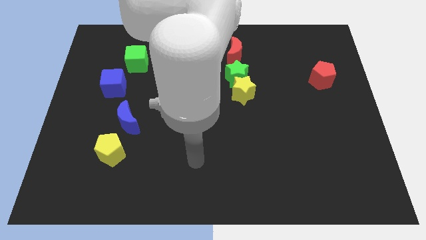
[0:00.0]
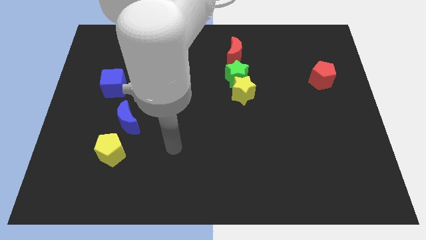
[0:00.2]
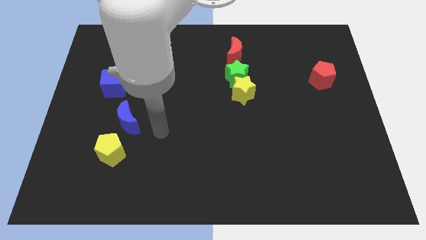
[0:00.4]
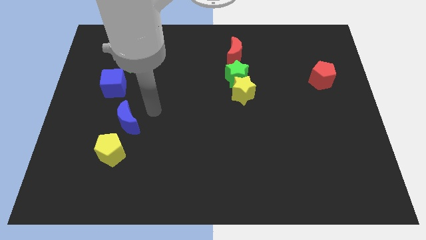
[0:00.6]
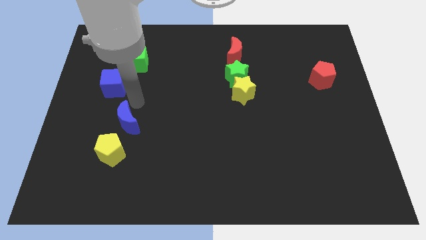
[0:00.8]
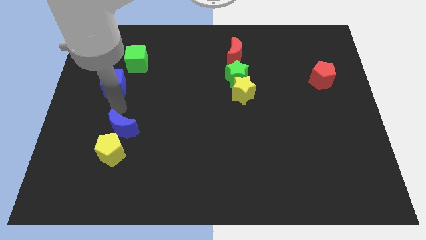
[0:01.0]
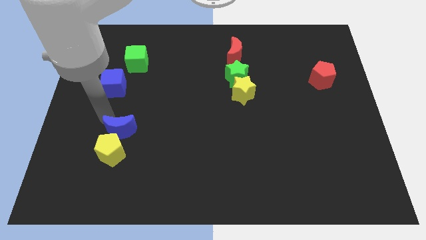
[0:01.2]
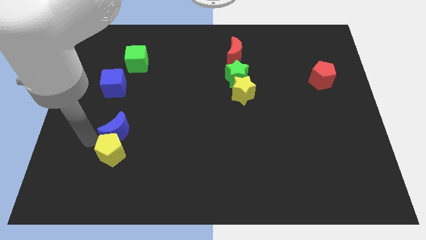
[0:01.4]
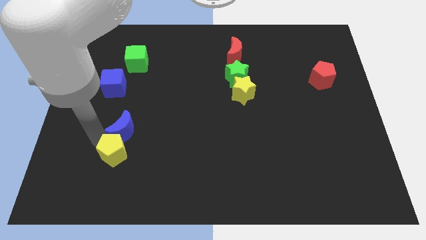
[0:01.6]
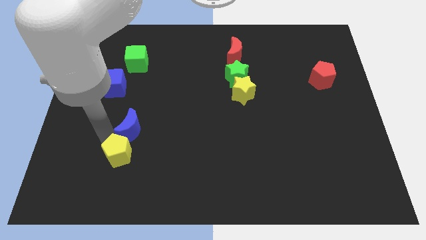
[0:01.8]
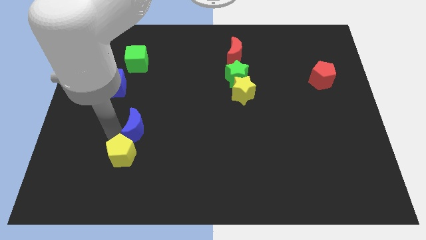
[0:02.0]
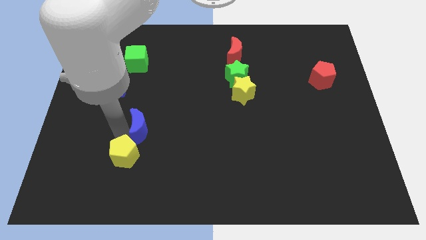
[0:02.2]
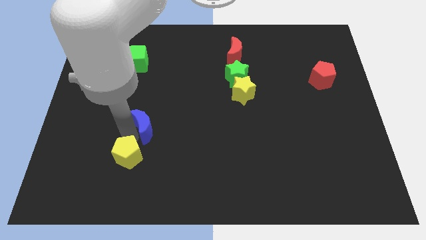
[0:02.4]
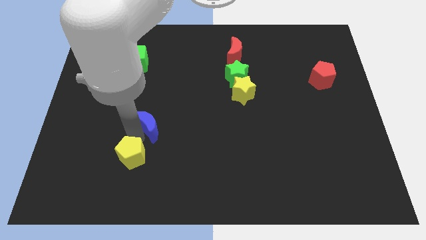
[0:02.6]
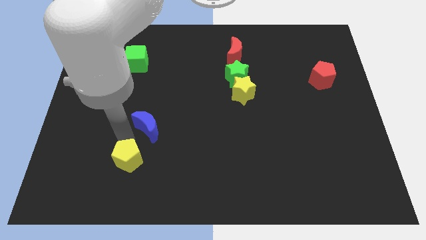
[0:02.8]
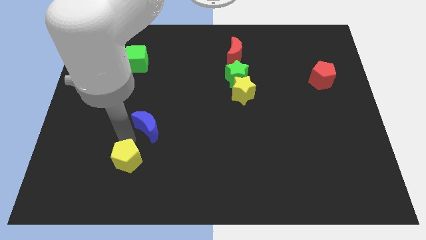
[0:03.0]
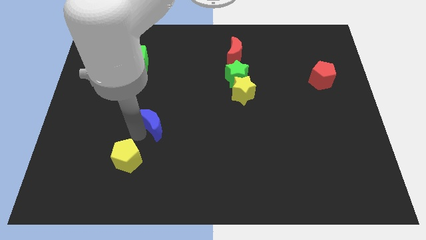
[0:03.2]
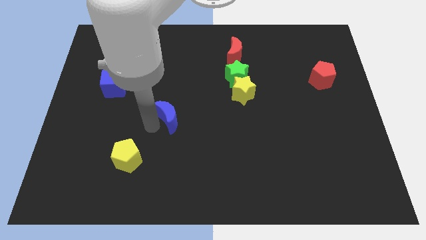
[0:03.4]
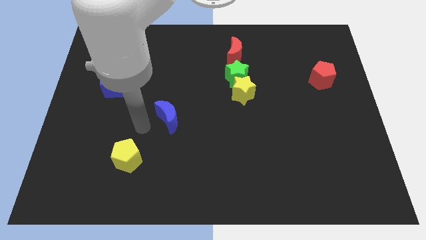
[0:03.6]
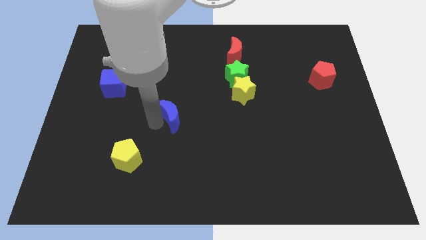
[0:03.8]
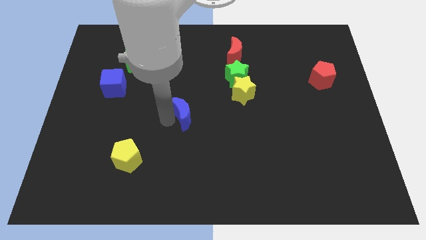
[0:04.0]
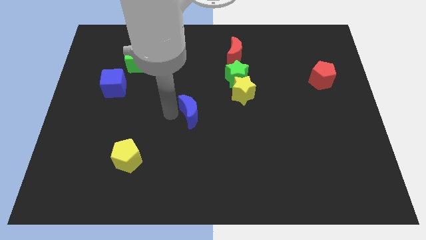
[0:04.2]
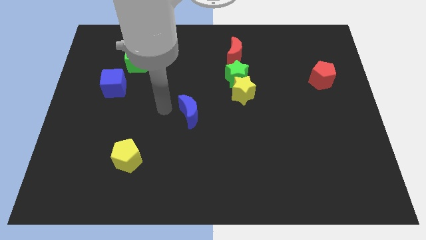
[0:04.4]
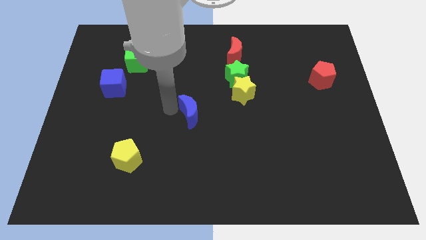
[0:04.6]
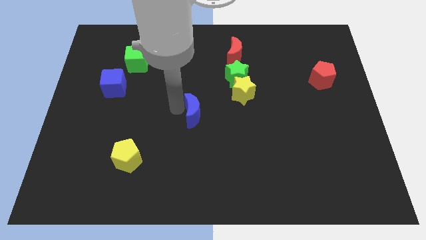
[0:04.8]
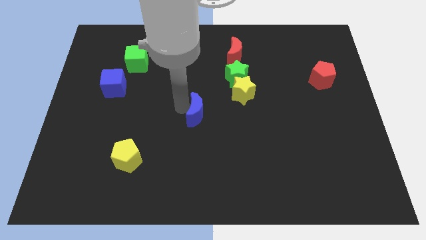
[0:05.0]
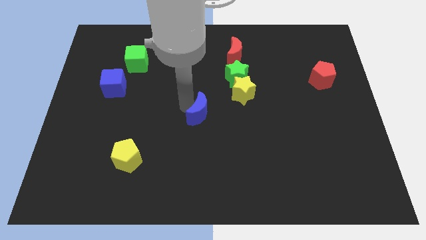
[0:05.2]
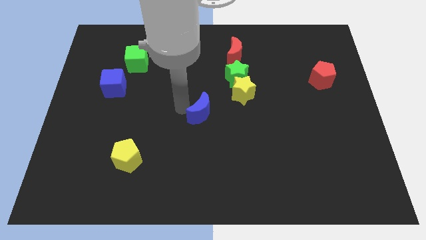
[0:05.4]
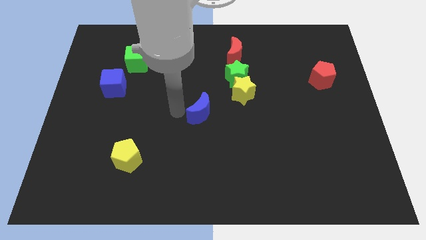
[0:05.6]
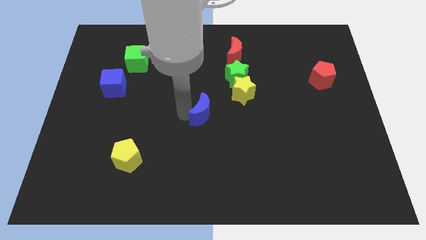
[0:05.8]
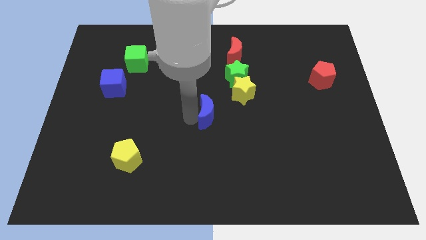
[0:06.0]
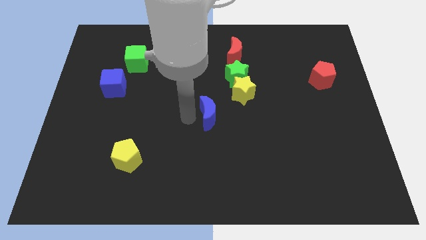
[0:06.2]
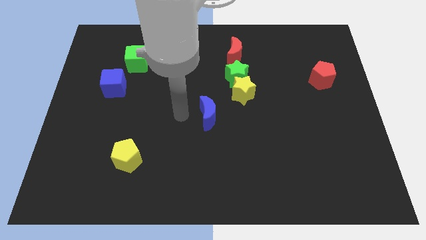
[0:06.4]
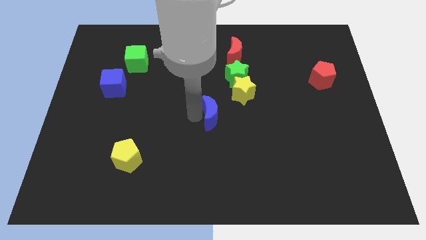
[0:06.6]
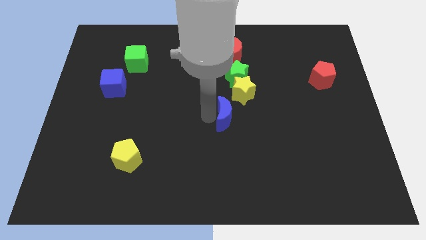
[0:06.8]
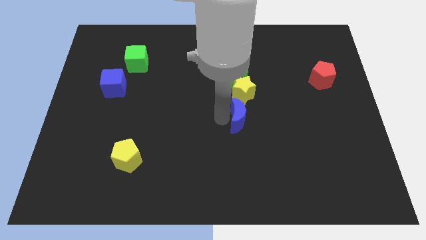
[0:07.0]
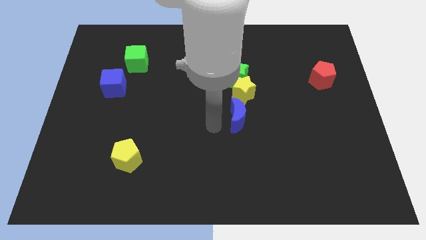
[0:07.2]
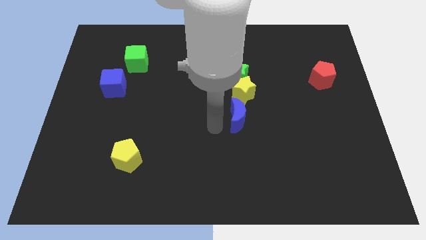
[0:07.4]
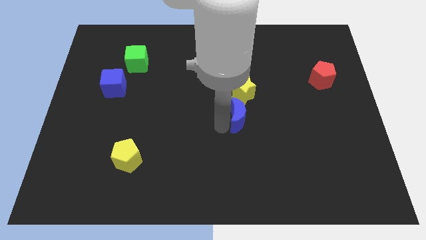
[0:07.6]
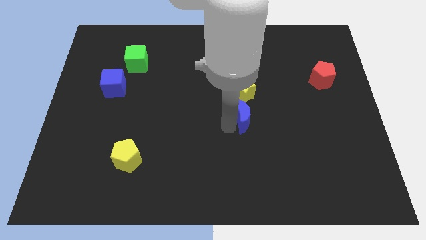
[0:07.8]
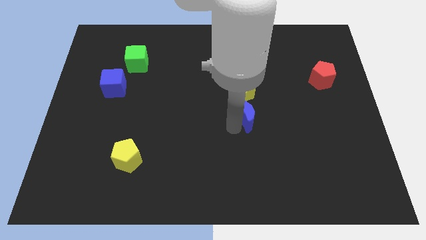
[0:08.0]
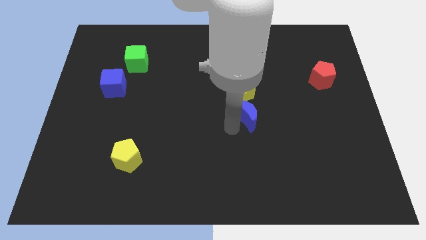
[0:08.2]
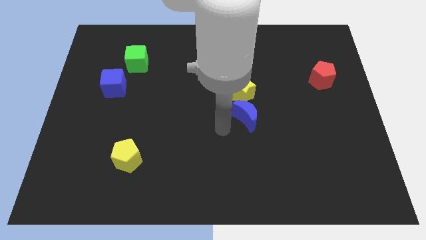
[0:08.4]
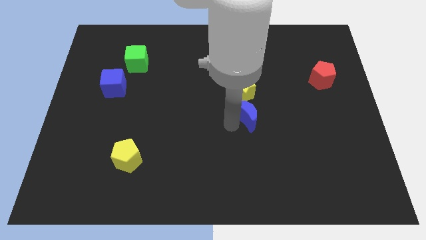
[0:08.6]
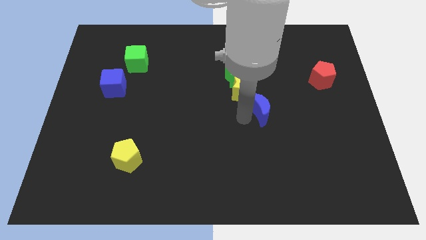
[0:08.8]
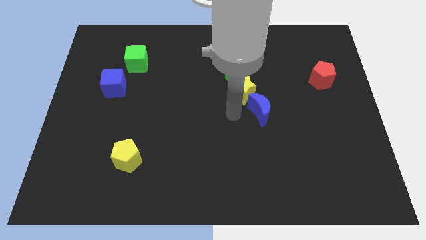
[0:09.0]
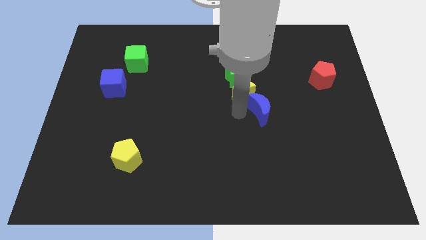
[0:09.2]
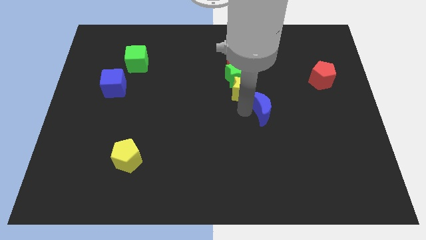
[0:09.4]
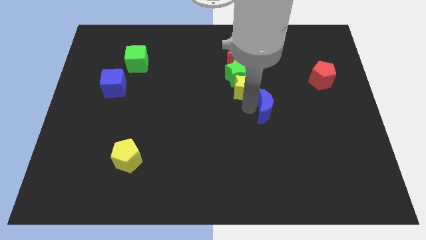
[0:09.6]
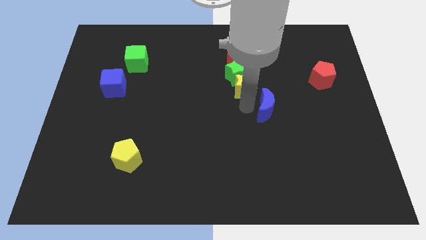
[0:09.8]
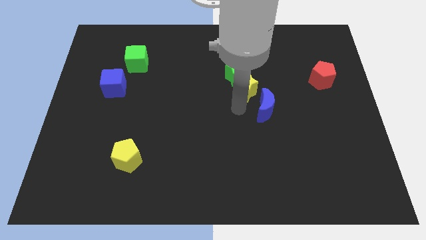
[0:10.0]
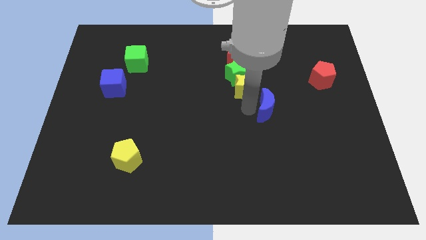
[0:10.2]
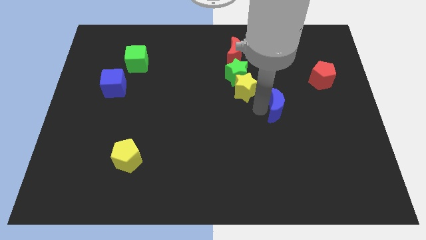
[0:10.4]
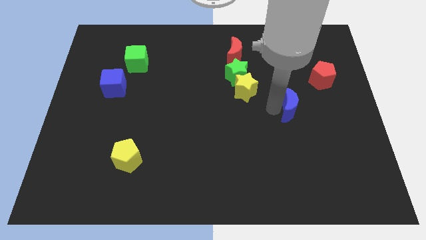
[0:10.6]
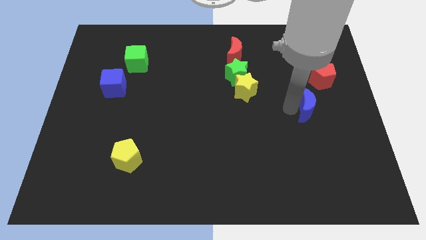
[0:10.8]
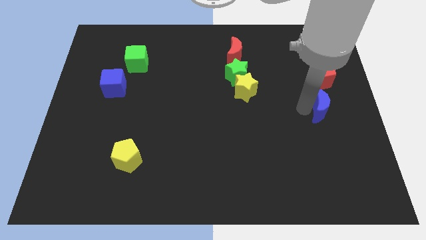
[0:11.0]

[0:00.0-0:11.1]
slide the blue moon to the right side

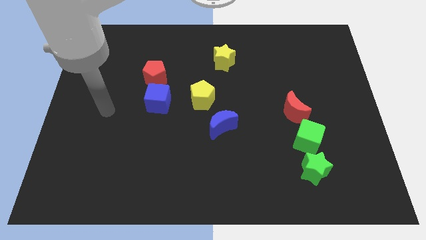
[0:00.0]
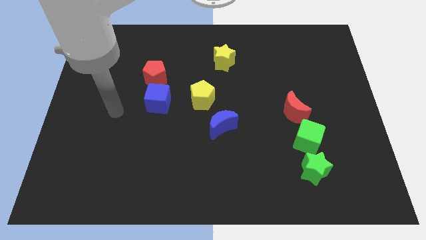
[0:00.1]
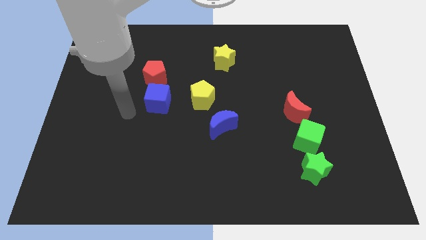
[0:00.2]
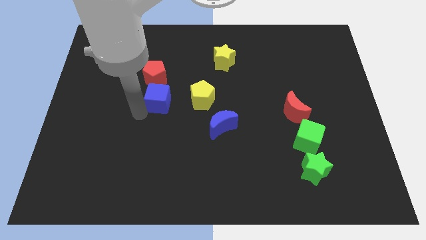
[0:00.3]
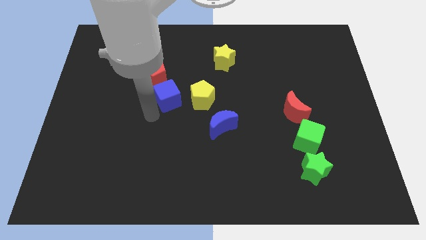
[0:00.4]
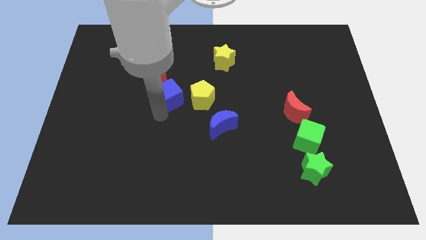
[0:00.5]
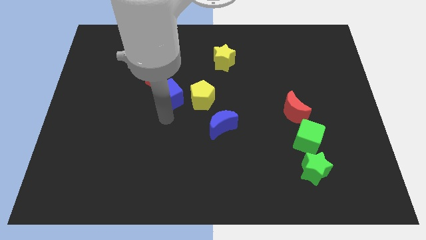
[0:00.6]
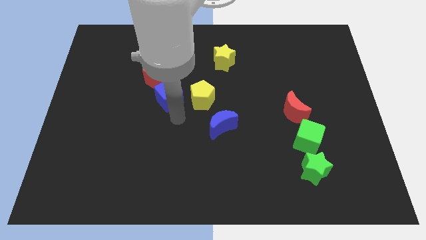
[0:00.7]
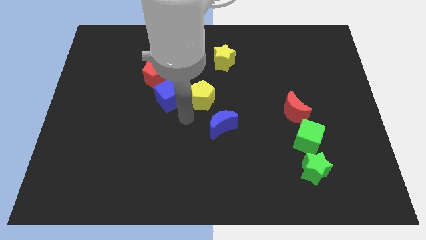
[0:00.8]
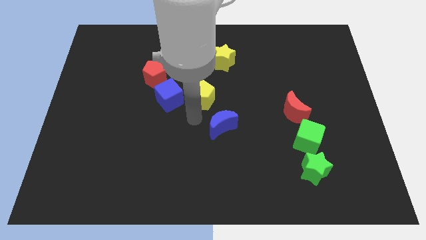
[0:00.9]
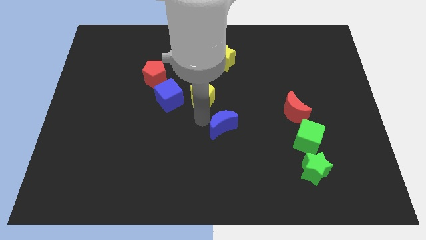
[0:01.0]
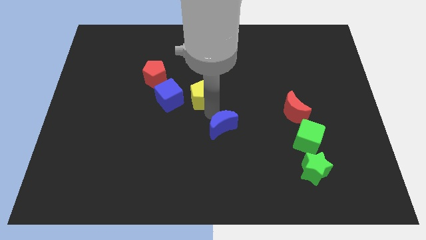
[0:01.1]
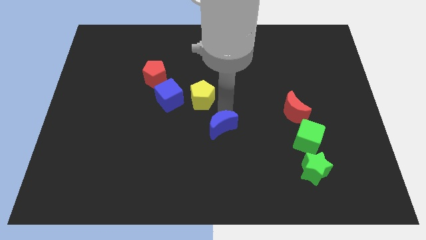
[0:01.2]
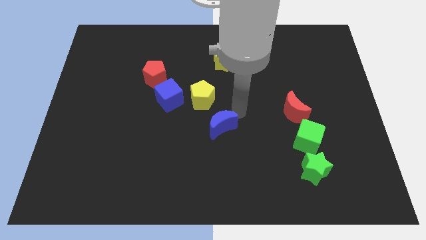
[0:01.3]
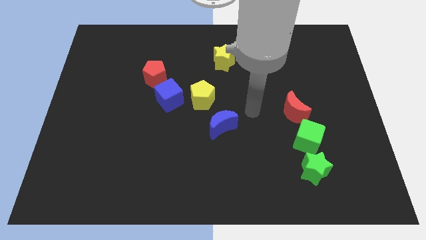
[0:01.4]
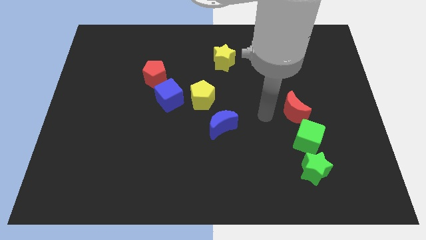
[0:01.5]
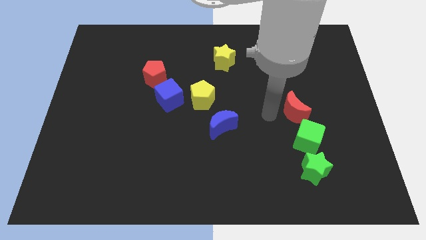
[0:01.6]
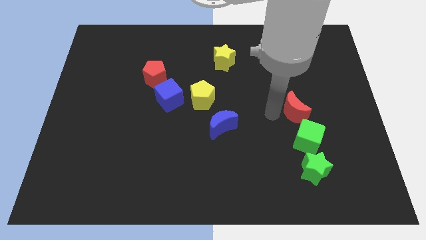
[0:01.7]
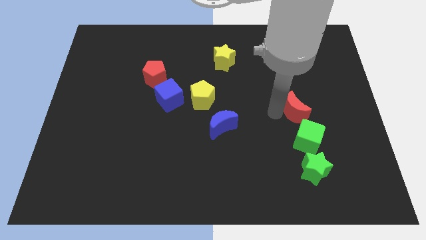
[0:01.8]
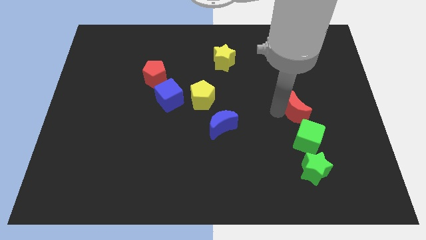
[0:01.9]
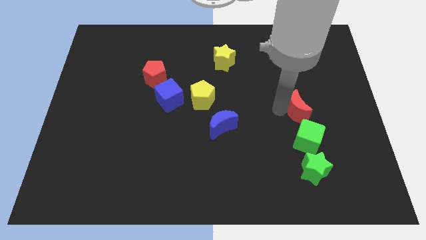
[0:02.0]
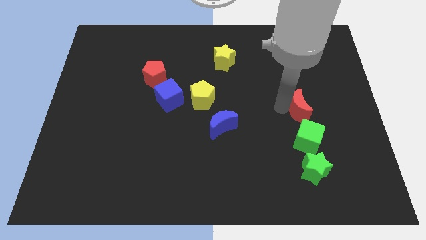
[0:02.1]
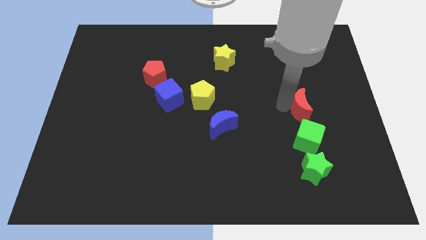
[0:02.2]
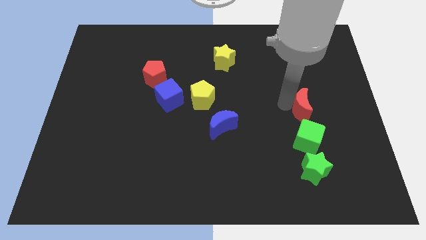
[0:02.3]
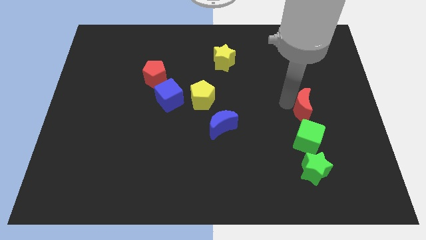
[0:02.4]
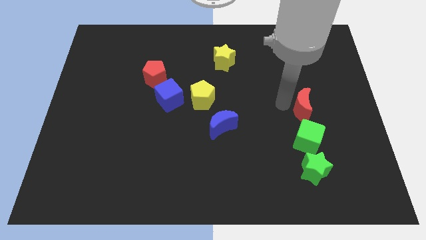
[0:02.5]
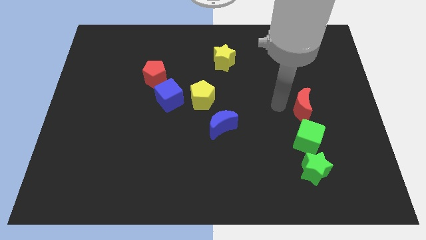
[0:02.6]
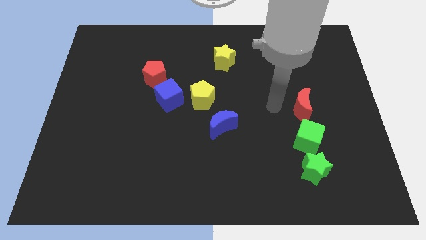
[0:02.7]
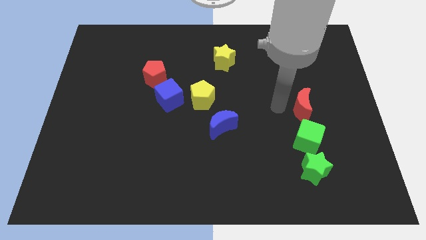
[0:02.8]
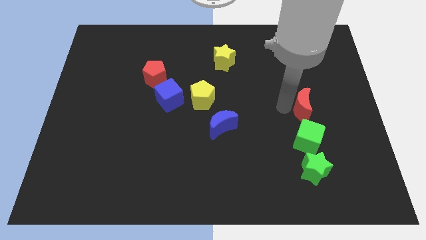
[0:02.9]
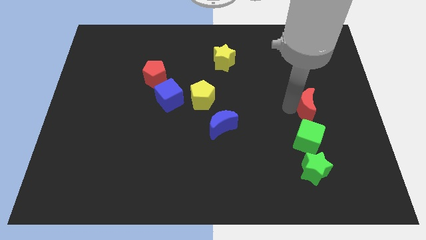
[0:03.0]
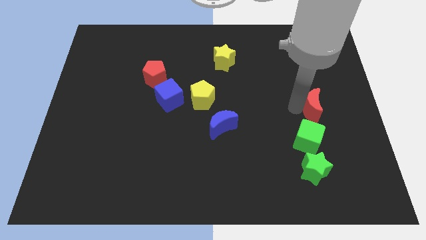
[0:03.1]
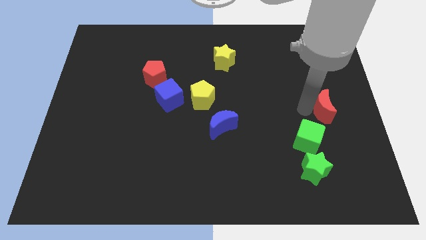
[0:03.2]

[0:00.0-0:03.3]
move the red moon to the right side
